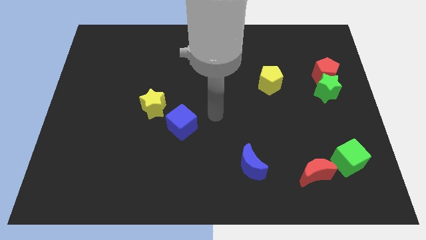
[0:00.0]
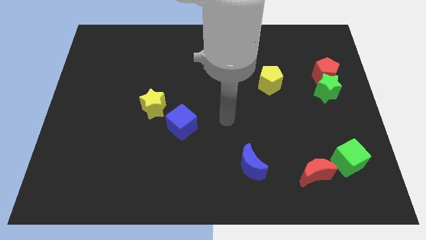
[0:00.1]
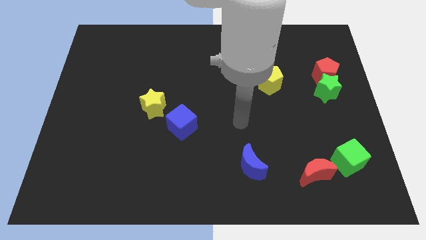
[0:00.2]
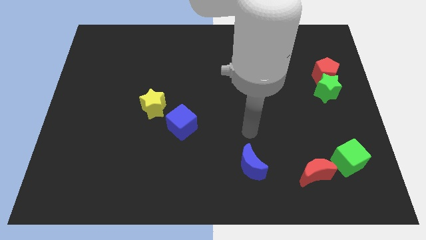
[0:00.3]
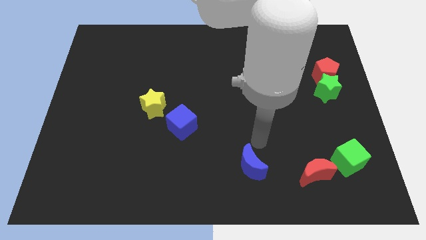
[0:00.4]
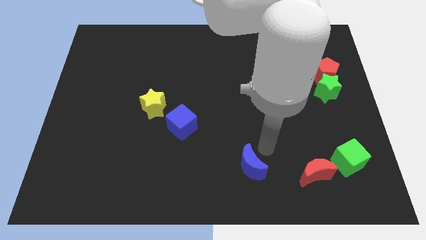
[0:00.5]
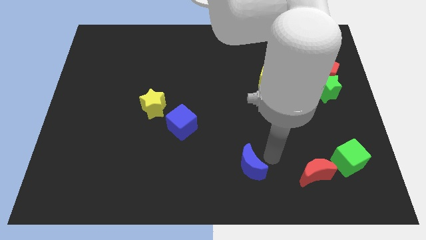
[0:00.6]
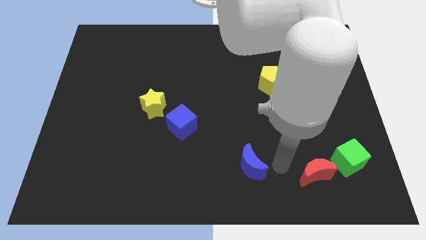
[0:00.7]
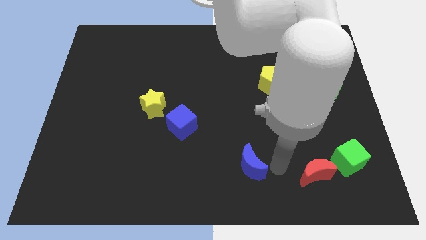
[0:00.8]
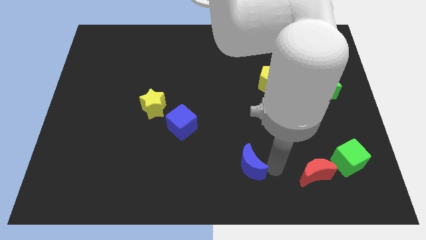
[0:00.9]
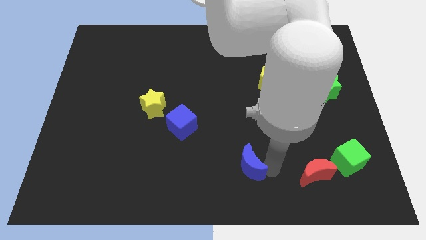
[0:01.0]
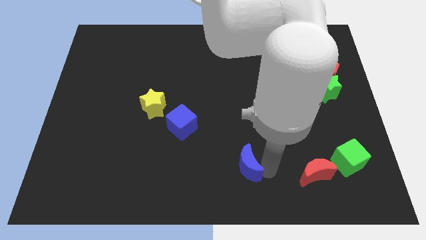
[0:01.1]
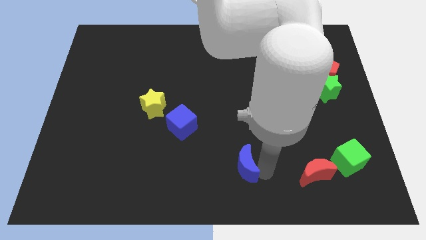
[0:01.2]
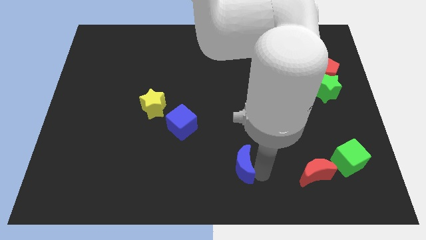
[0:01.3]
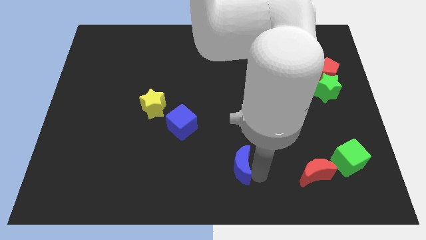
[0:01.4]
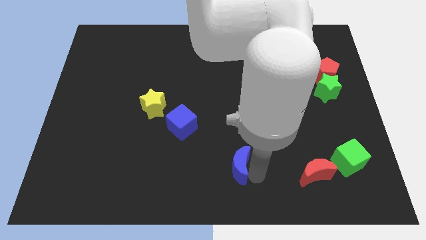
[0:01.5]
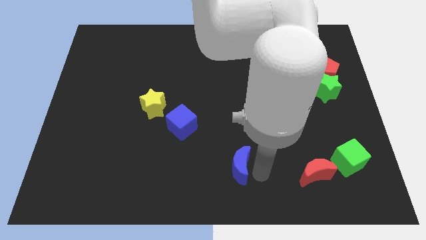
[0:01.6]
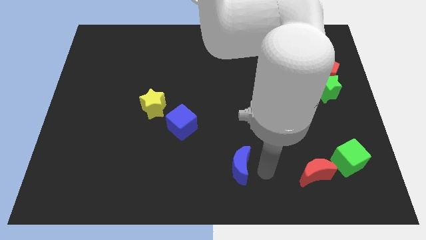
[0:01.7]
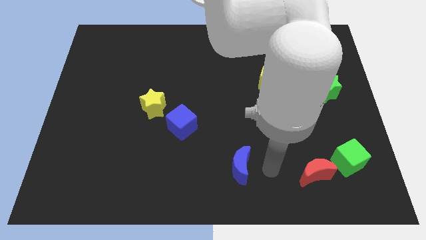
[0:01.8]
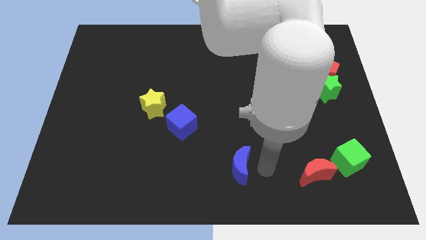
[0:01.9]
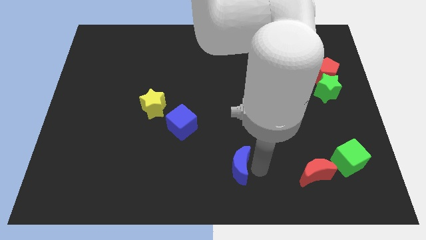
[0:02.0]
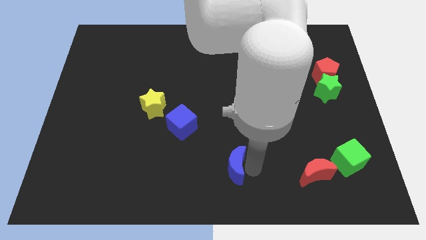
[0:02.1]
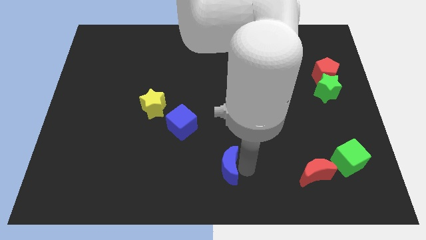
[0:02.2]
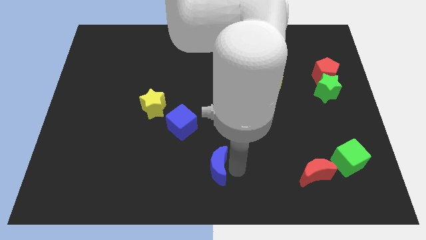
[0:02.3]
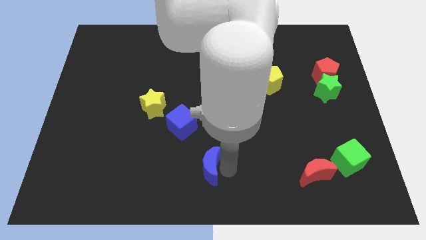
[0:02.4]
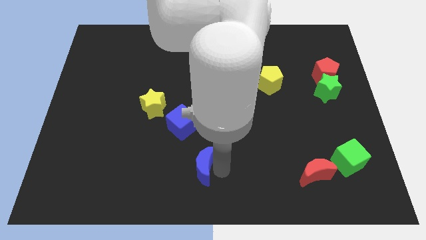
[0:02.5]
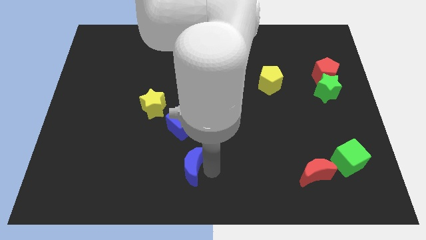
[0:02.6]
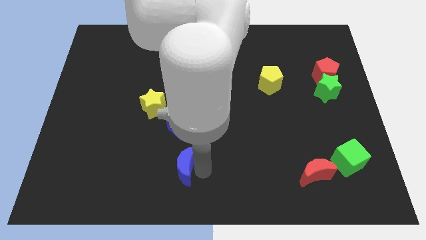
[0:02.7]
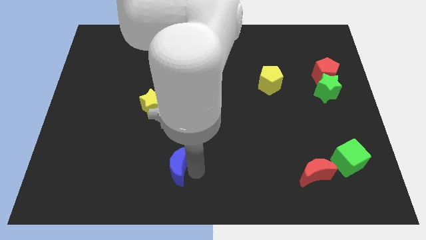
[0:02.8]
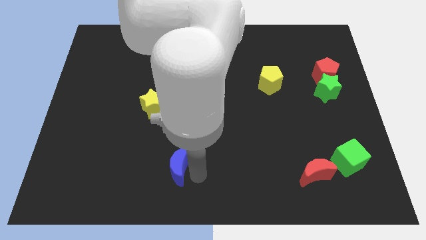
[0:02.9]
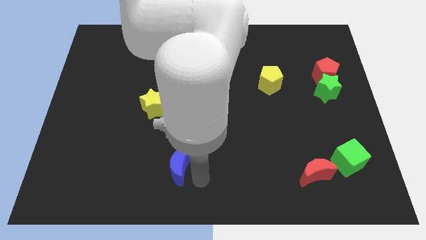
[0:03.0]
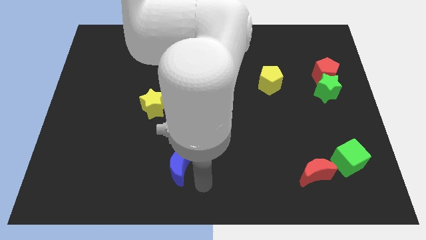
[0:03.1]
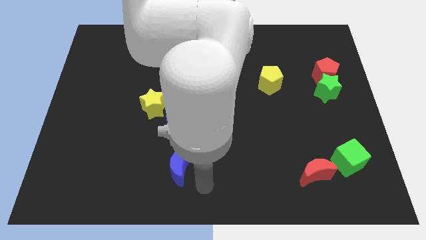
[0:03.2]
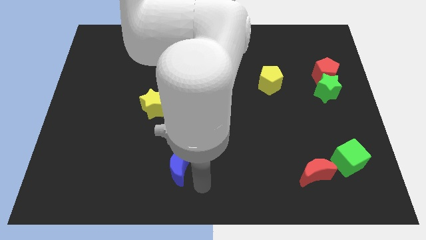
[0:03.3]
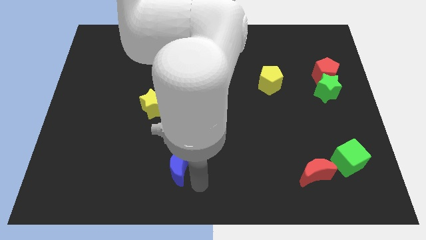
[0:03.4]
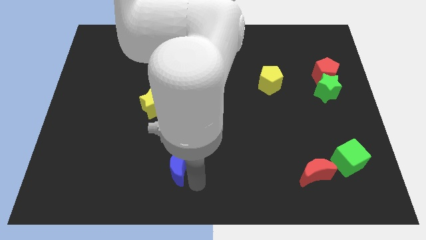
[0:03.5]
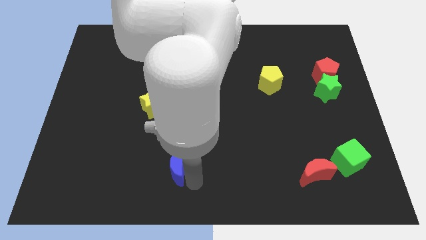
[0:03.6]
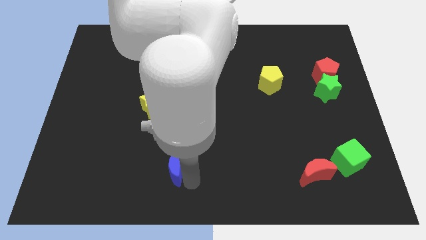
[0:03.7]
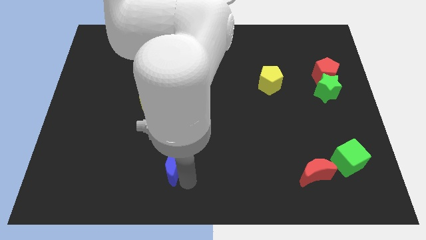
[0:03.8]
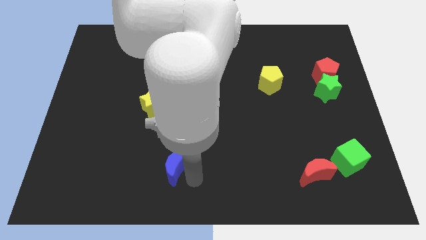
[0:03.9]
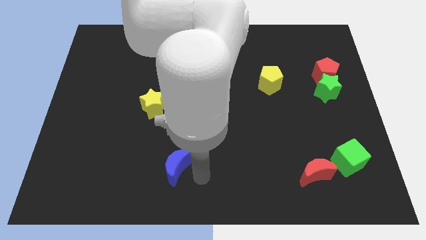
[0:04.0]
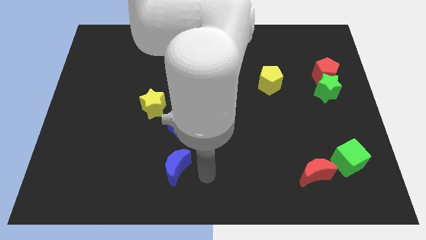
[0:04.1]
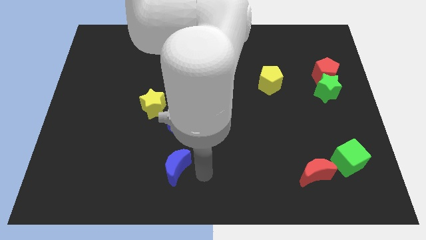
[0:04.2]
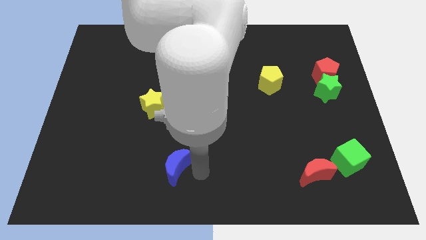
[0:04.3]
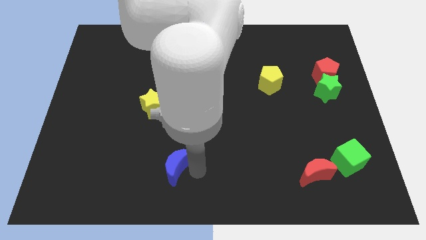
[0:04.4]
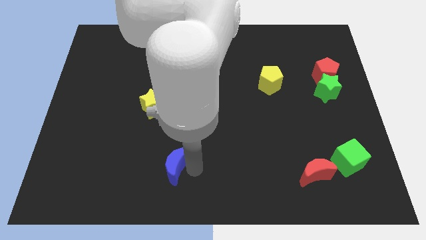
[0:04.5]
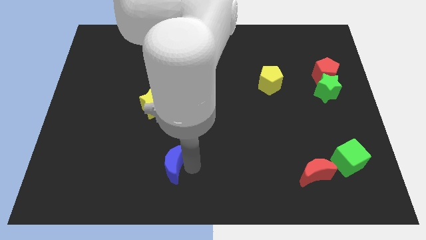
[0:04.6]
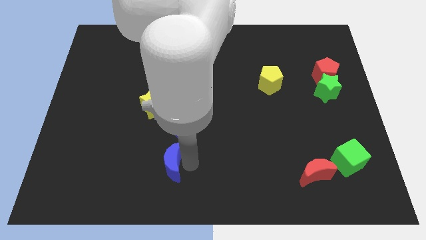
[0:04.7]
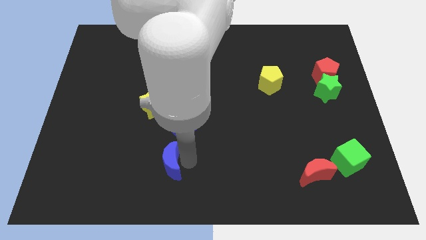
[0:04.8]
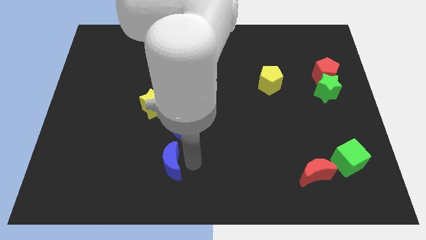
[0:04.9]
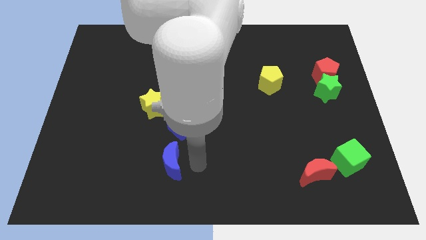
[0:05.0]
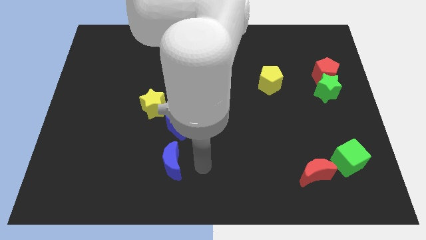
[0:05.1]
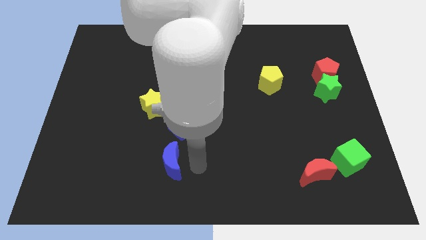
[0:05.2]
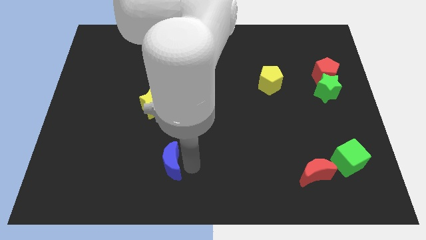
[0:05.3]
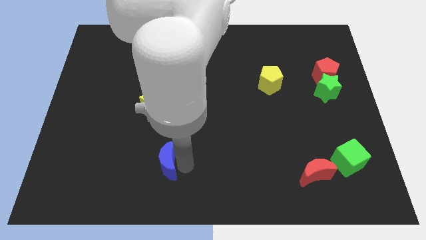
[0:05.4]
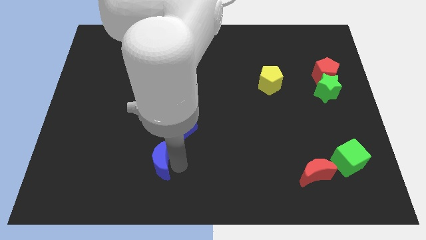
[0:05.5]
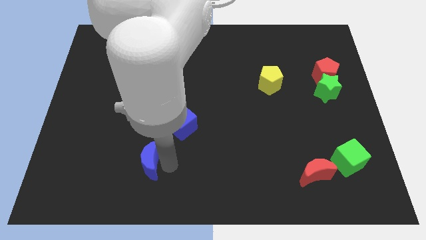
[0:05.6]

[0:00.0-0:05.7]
move the blue moon to the left

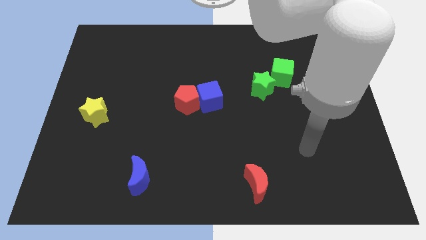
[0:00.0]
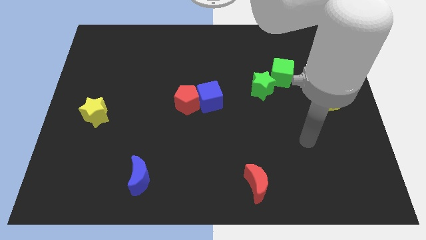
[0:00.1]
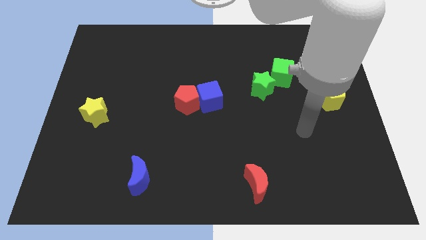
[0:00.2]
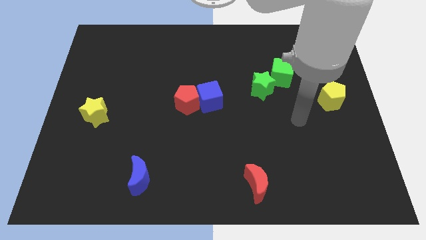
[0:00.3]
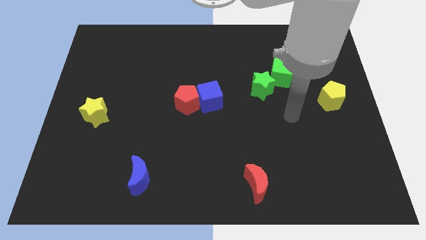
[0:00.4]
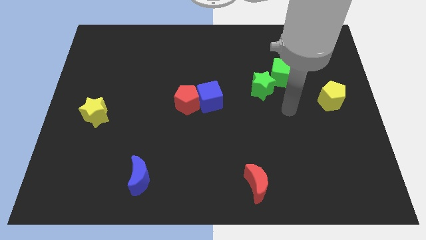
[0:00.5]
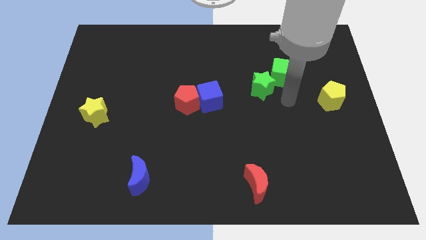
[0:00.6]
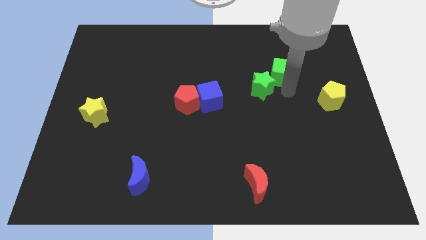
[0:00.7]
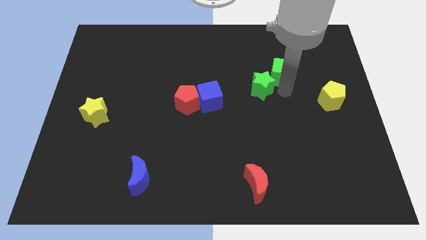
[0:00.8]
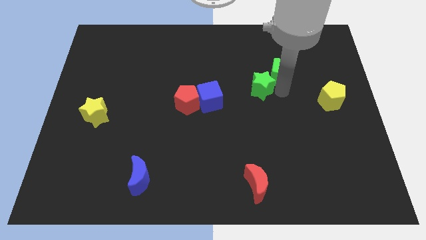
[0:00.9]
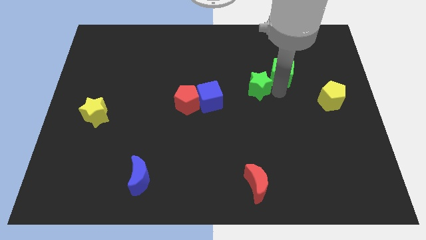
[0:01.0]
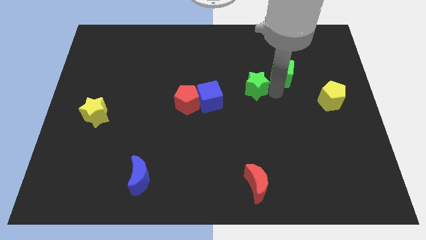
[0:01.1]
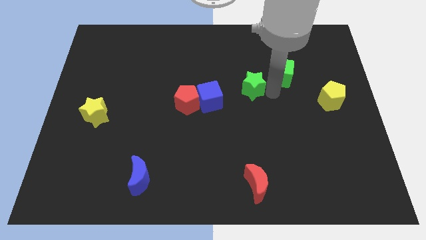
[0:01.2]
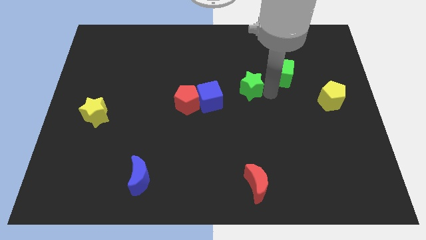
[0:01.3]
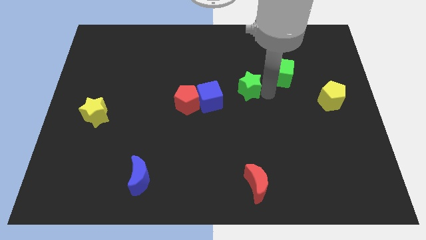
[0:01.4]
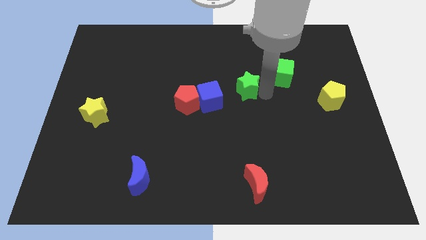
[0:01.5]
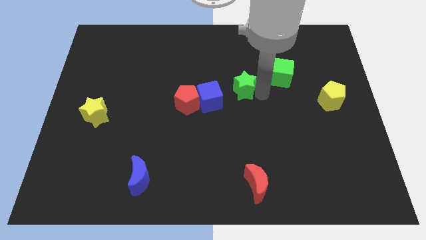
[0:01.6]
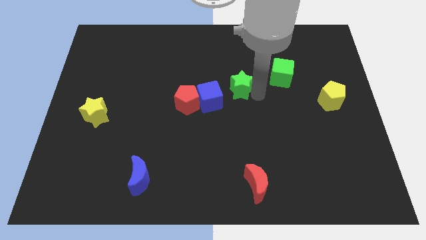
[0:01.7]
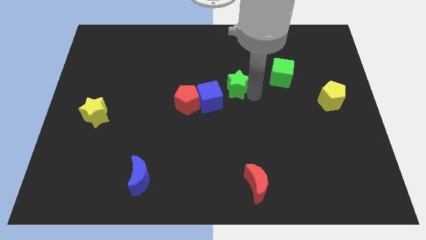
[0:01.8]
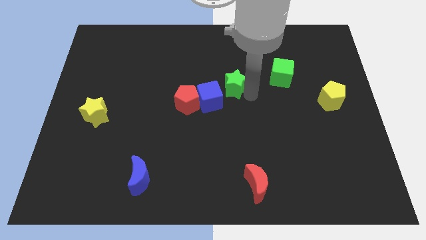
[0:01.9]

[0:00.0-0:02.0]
slide the green star a bit left

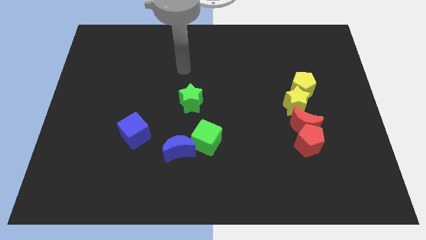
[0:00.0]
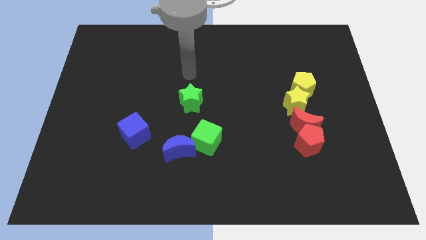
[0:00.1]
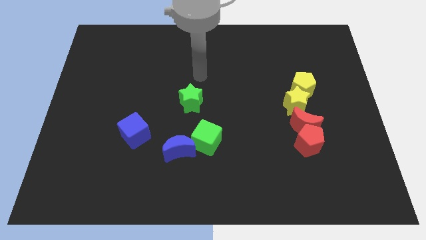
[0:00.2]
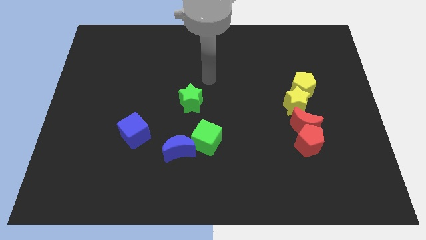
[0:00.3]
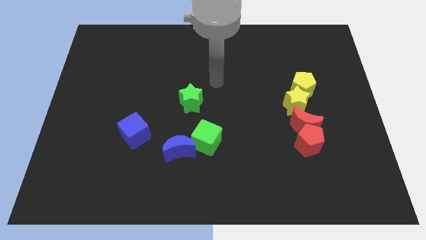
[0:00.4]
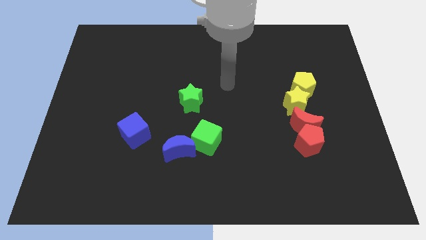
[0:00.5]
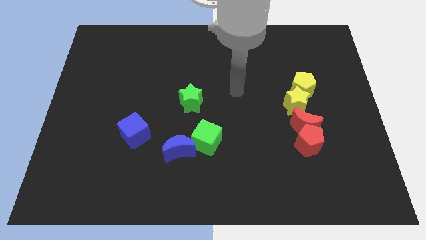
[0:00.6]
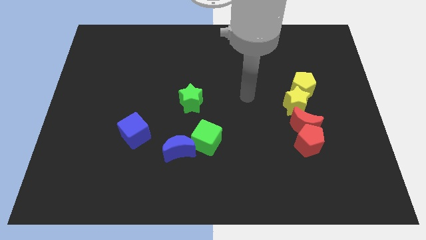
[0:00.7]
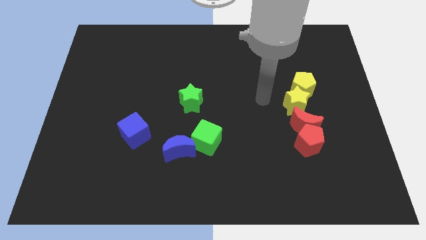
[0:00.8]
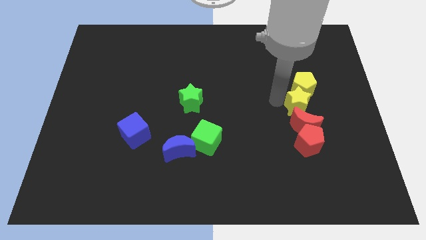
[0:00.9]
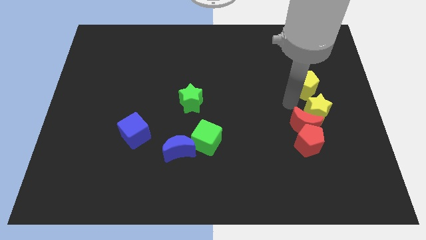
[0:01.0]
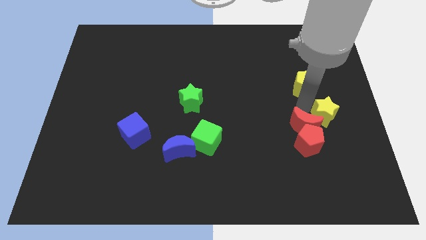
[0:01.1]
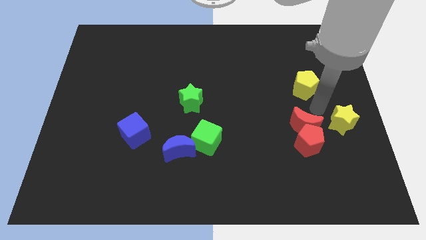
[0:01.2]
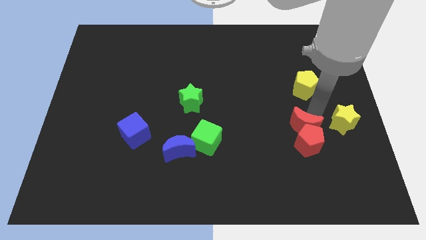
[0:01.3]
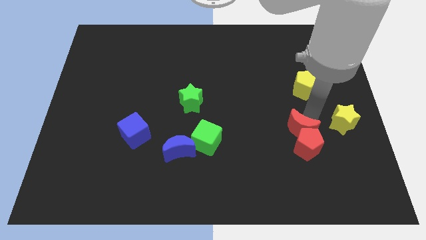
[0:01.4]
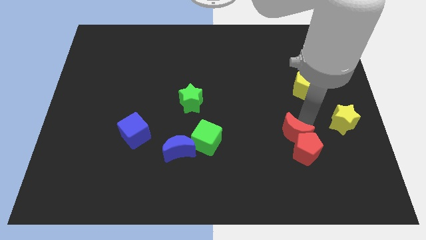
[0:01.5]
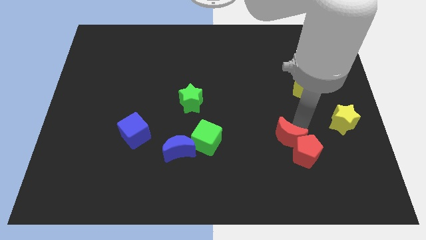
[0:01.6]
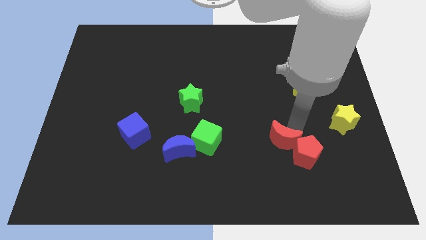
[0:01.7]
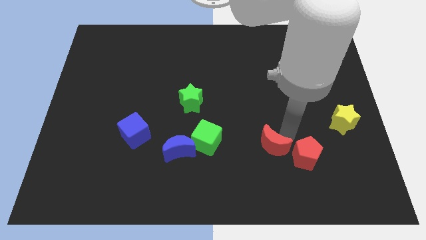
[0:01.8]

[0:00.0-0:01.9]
slide the red moon downwards and then left a little
